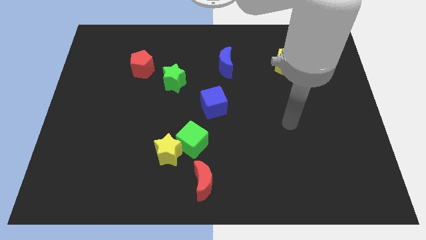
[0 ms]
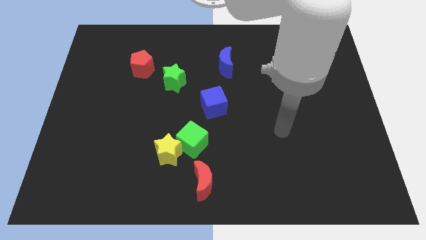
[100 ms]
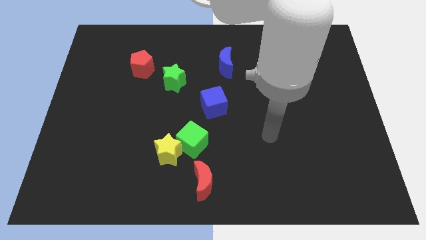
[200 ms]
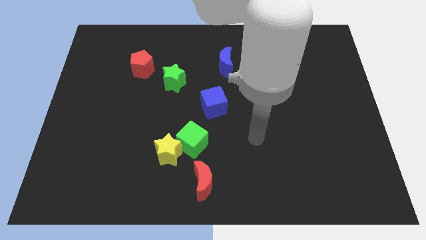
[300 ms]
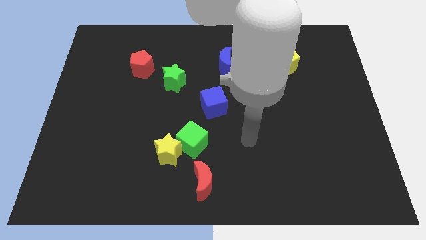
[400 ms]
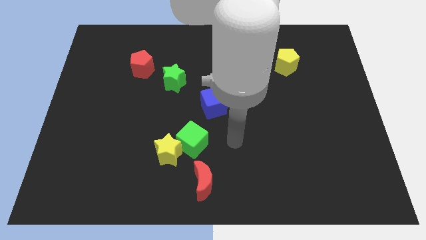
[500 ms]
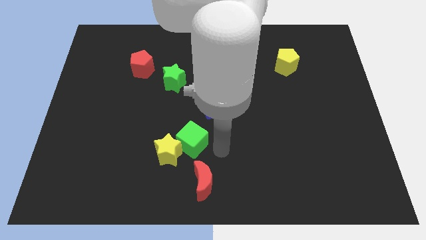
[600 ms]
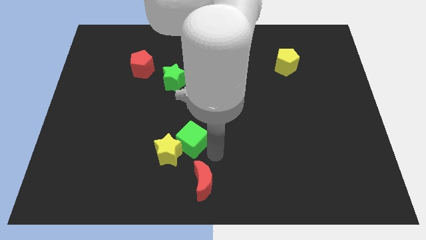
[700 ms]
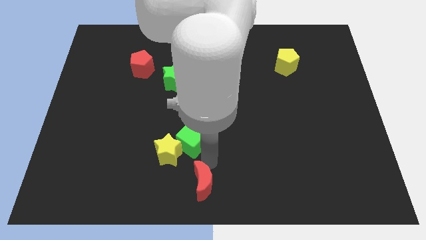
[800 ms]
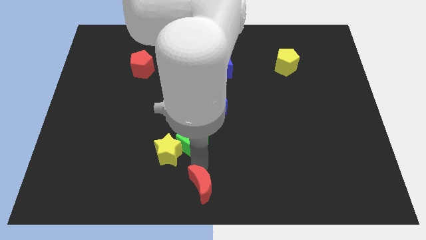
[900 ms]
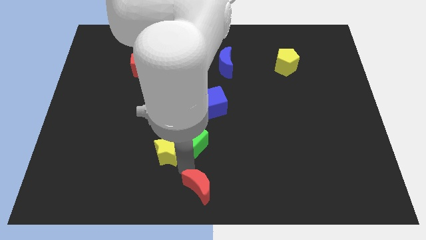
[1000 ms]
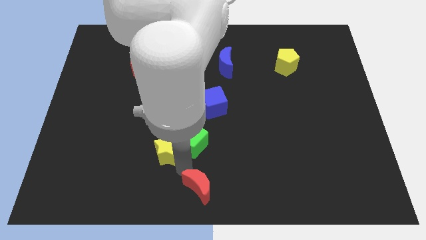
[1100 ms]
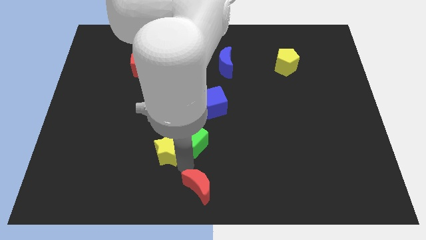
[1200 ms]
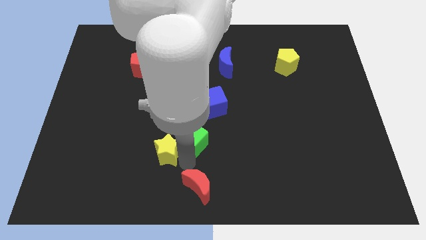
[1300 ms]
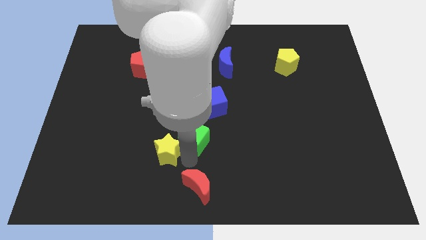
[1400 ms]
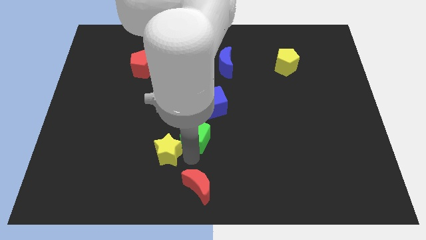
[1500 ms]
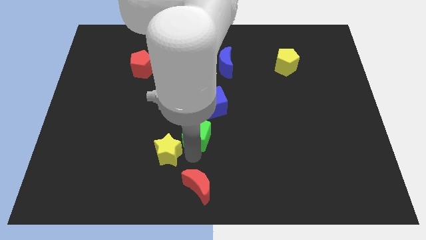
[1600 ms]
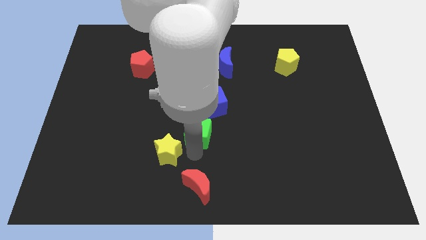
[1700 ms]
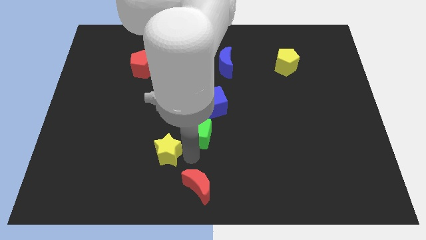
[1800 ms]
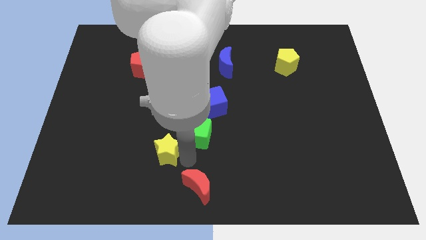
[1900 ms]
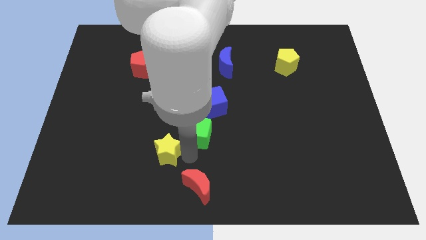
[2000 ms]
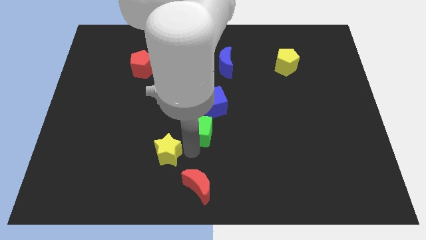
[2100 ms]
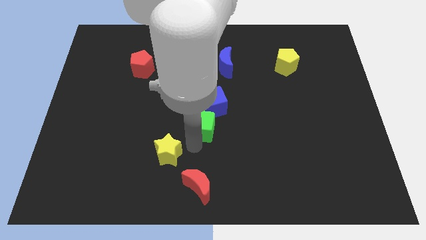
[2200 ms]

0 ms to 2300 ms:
move the green cube away from the yellow star and red moon

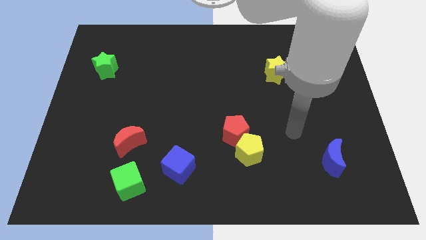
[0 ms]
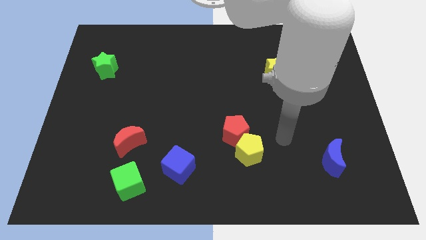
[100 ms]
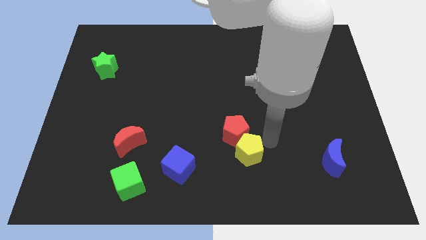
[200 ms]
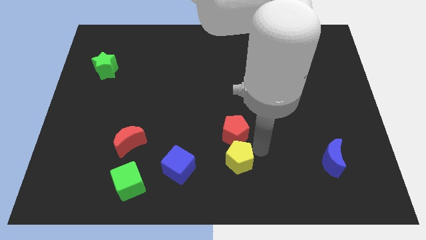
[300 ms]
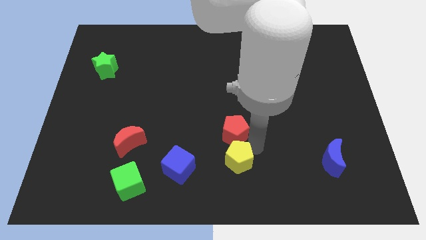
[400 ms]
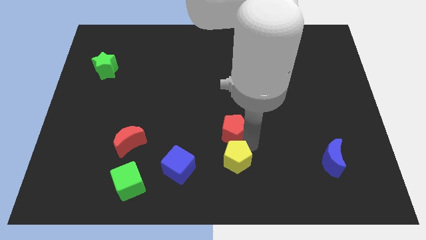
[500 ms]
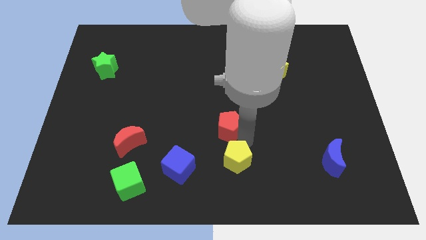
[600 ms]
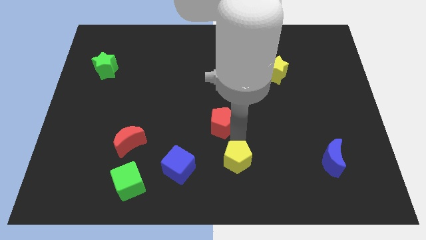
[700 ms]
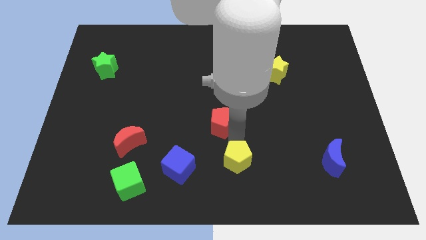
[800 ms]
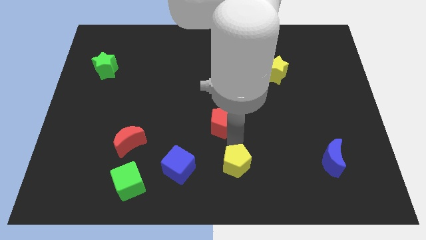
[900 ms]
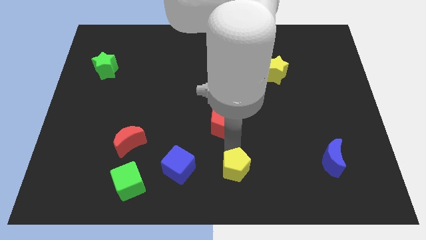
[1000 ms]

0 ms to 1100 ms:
separate the red pentagon from the yellow pentagon

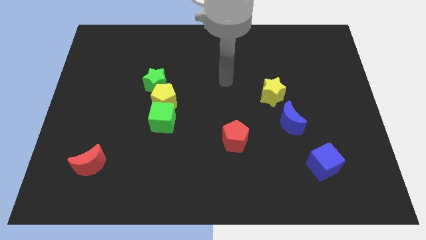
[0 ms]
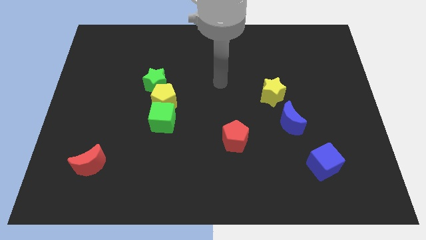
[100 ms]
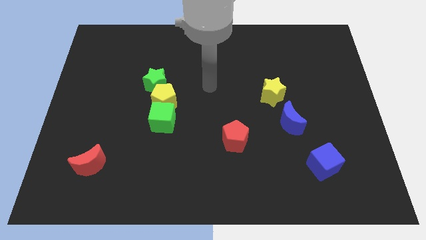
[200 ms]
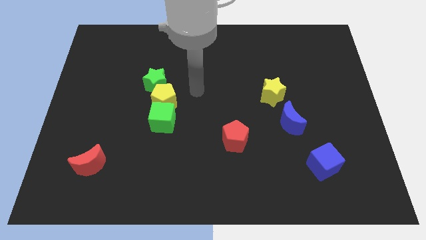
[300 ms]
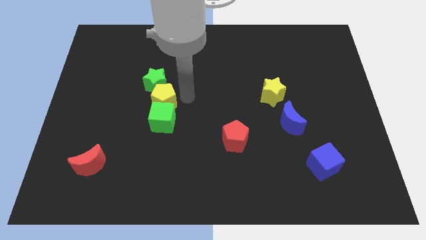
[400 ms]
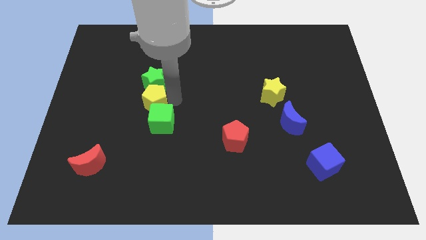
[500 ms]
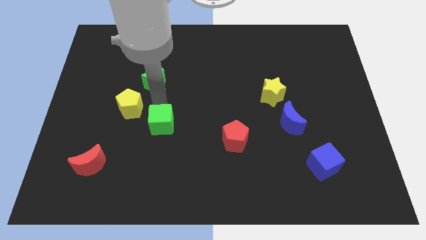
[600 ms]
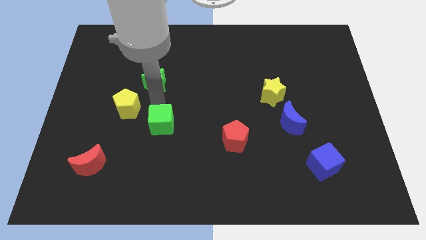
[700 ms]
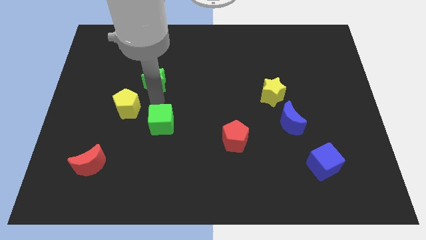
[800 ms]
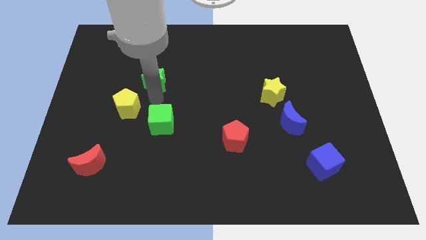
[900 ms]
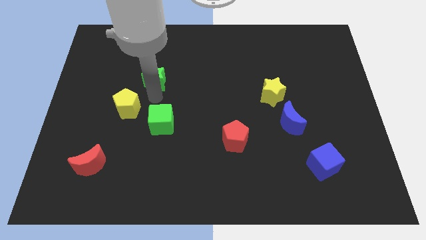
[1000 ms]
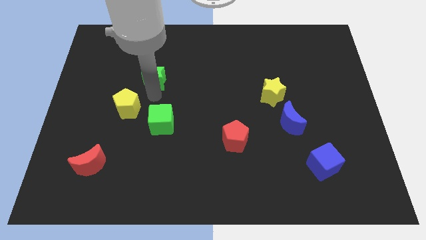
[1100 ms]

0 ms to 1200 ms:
separate the green star from the yellow pentagon

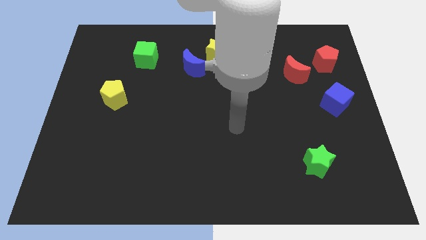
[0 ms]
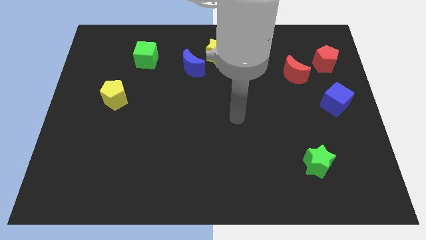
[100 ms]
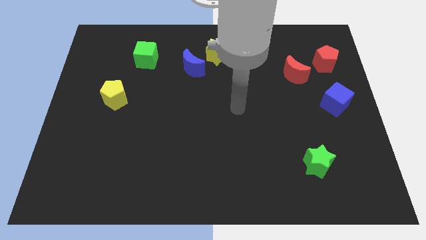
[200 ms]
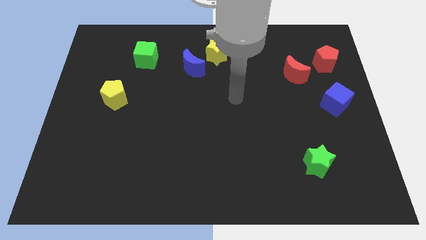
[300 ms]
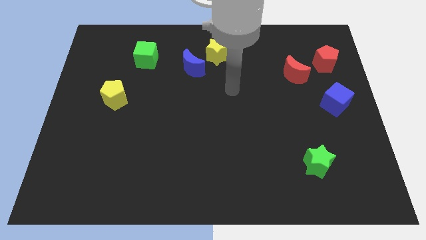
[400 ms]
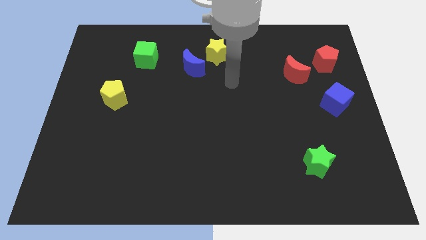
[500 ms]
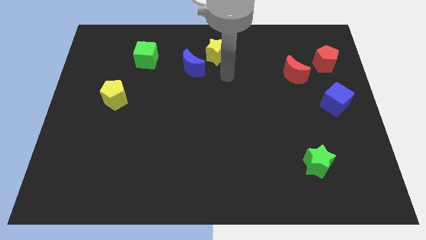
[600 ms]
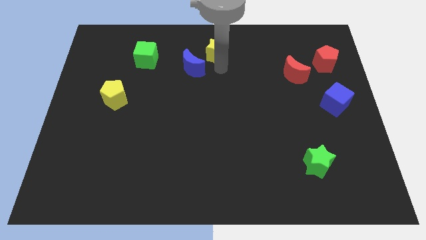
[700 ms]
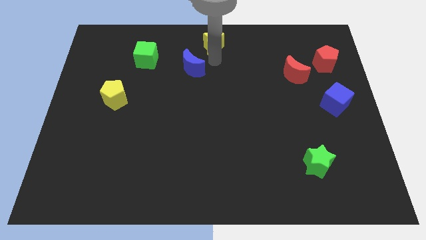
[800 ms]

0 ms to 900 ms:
move the blue moon away from the yellow star

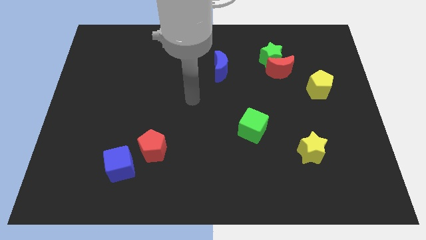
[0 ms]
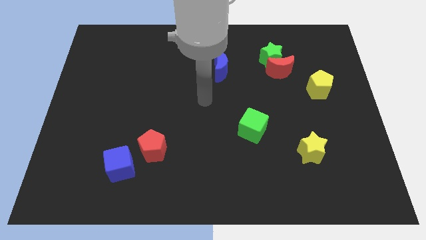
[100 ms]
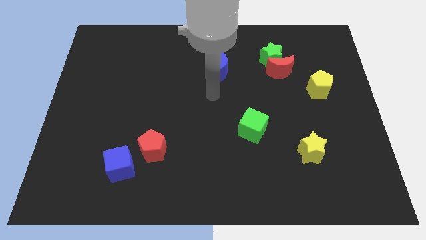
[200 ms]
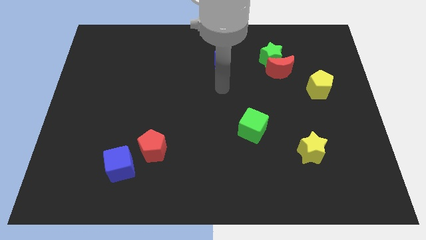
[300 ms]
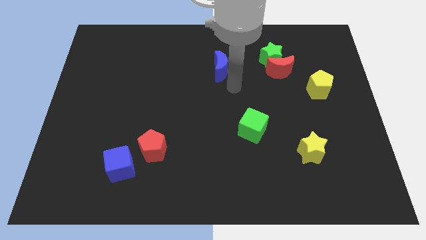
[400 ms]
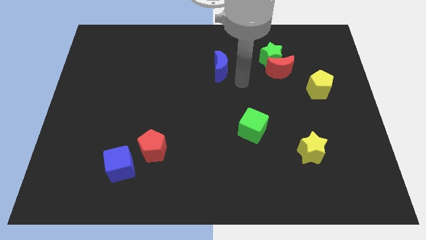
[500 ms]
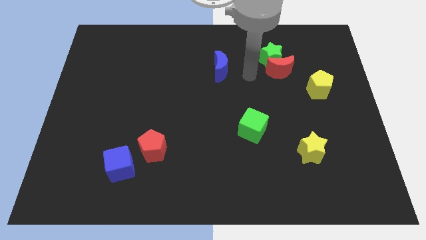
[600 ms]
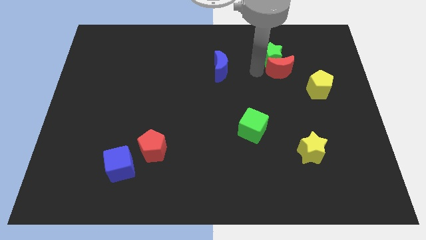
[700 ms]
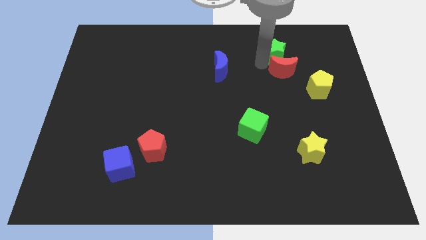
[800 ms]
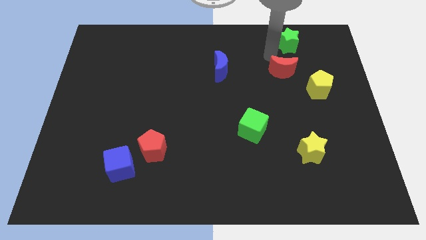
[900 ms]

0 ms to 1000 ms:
pull the red moon apart from the green star

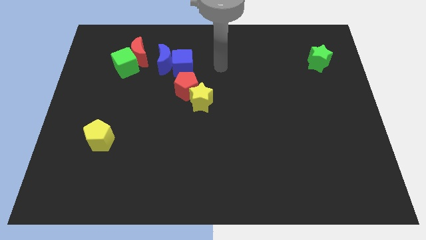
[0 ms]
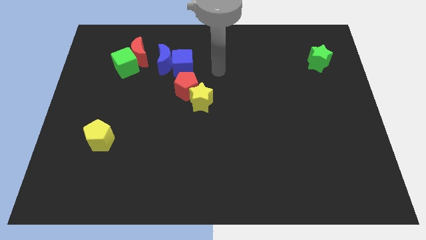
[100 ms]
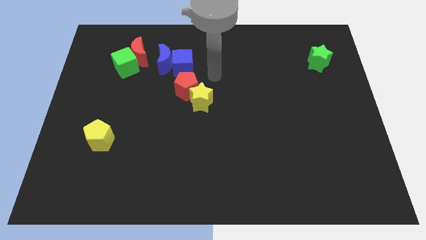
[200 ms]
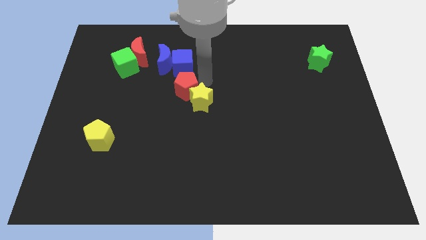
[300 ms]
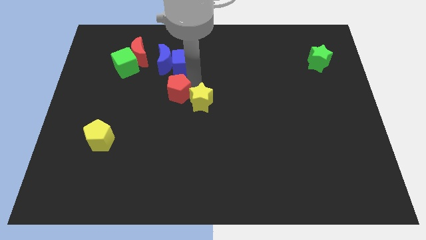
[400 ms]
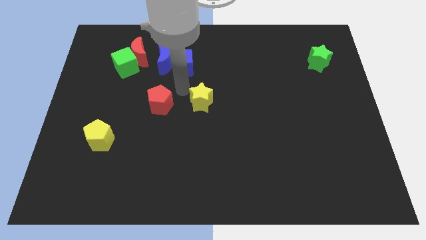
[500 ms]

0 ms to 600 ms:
separate the yellow star from the red pentagon

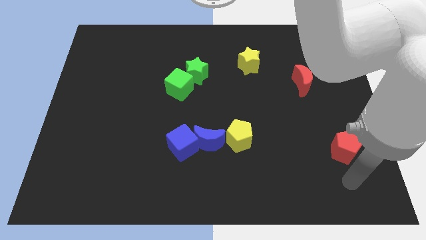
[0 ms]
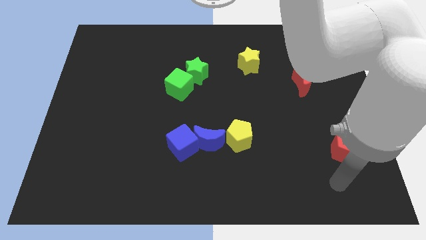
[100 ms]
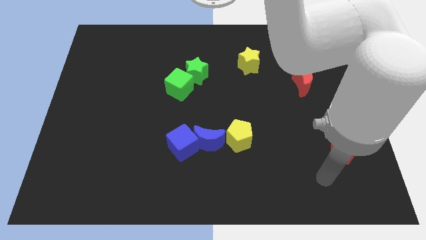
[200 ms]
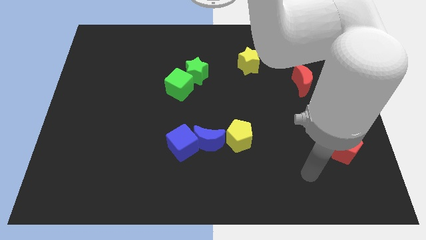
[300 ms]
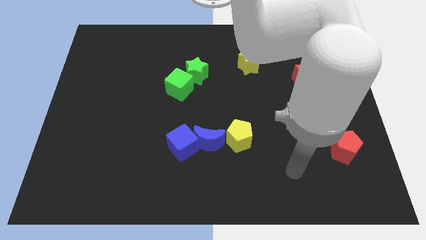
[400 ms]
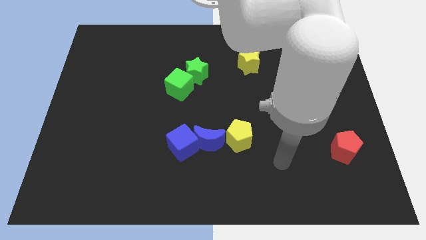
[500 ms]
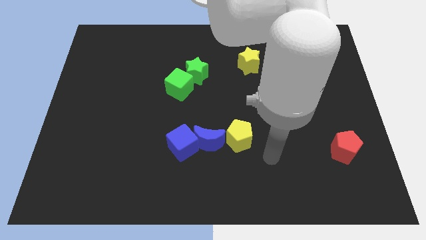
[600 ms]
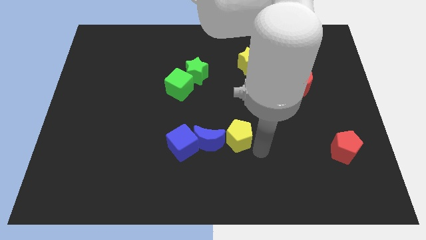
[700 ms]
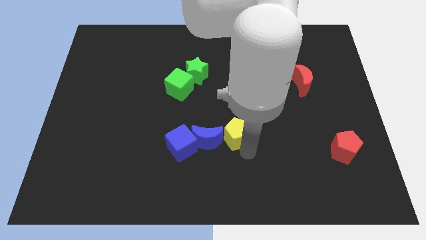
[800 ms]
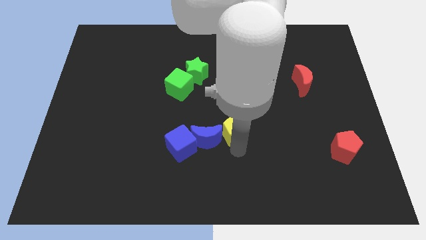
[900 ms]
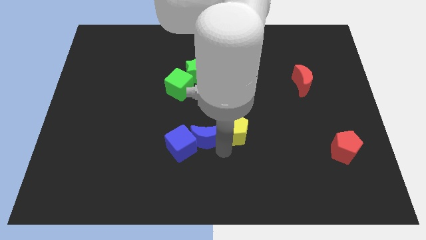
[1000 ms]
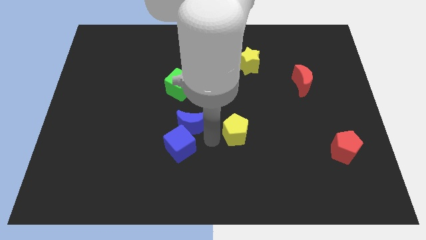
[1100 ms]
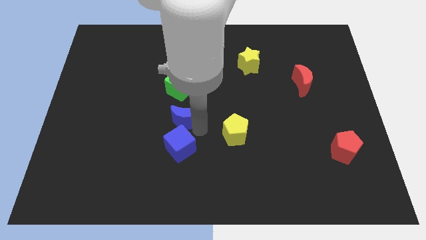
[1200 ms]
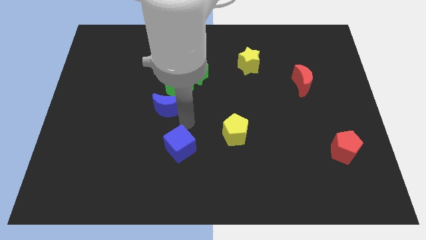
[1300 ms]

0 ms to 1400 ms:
pull the blue cube apart from the blue moon

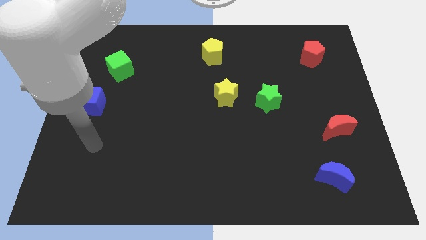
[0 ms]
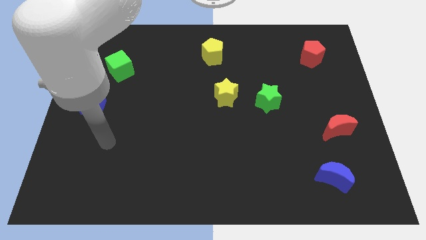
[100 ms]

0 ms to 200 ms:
move the green star away from the yellow star

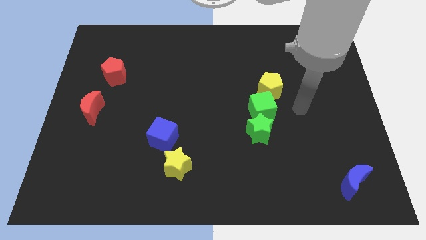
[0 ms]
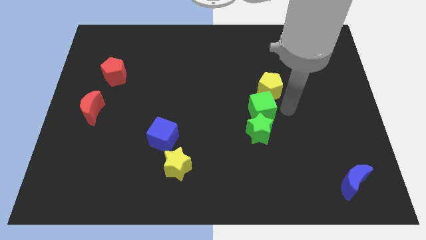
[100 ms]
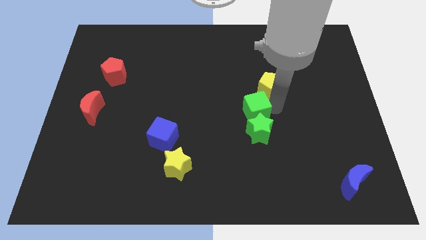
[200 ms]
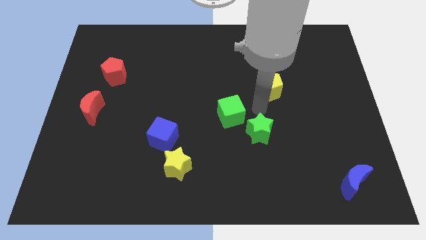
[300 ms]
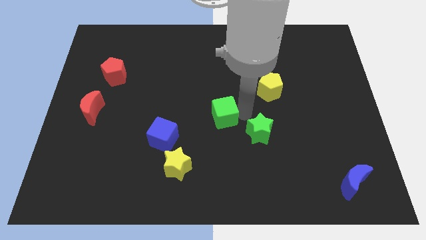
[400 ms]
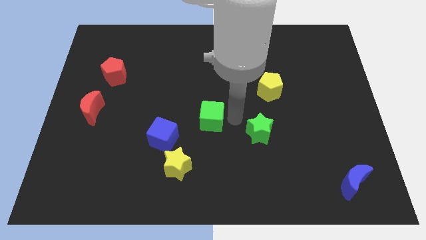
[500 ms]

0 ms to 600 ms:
separate the green star from the green cube
